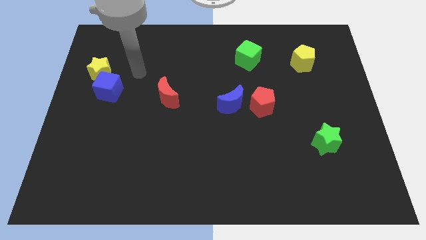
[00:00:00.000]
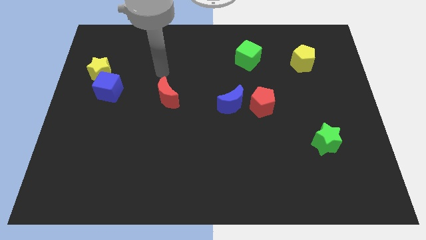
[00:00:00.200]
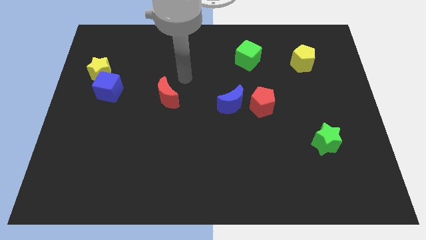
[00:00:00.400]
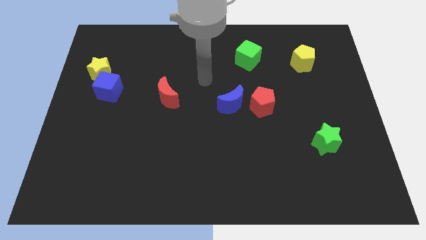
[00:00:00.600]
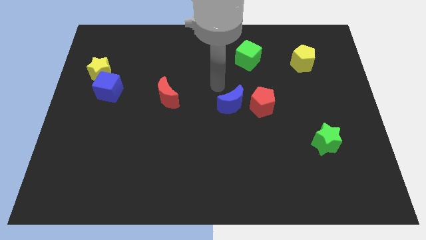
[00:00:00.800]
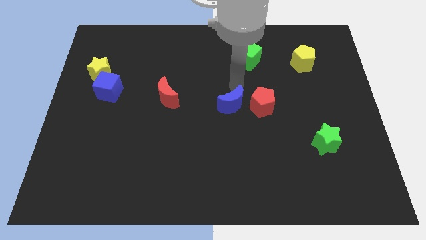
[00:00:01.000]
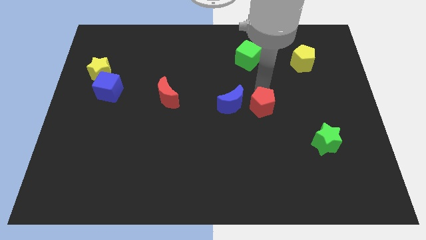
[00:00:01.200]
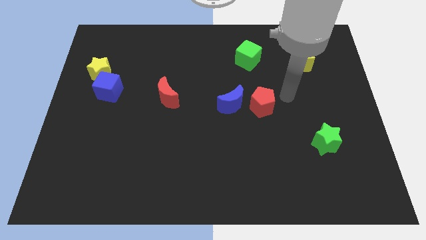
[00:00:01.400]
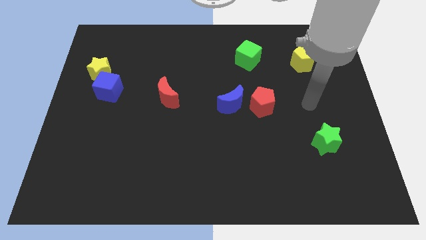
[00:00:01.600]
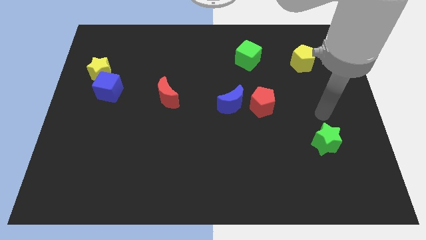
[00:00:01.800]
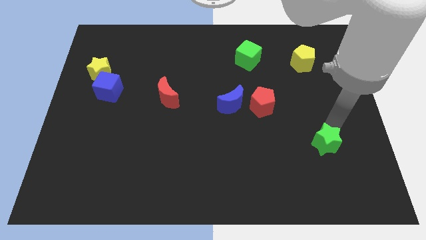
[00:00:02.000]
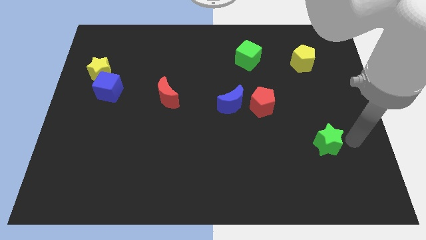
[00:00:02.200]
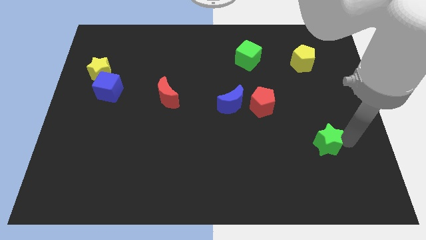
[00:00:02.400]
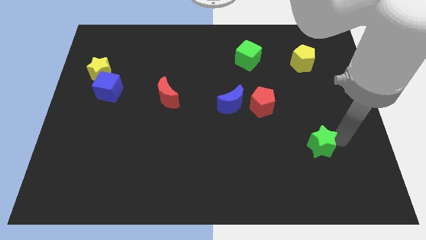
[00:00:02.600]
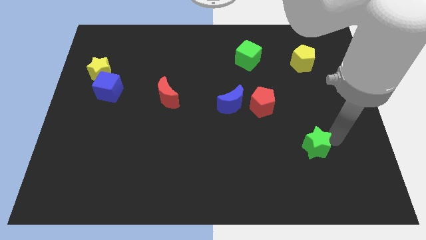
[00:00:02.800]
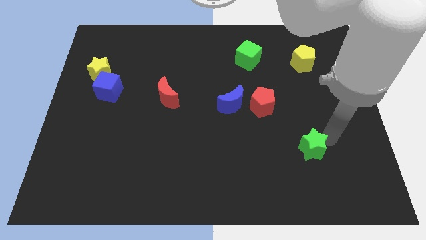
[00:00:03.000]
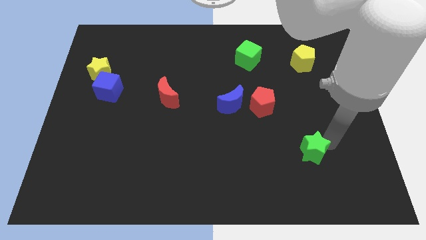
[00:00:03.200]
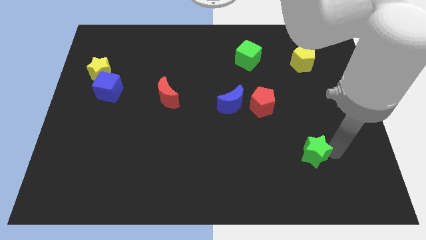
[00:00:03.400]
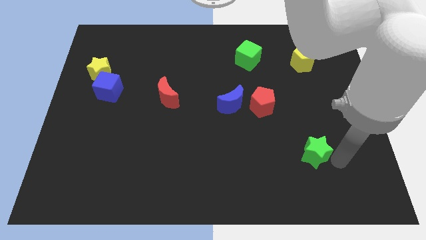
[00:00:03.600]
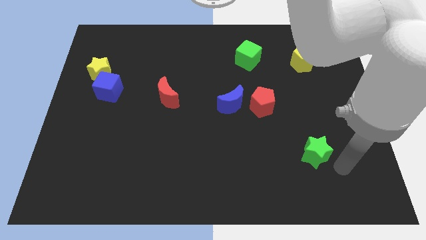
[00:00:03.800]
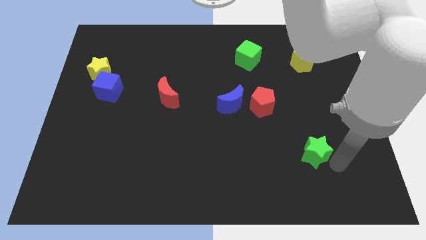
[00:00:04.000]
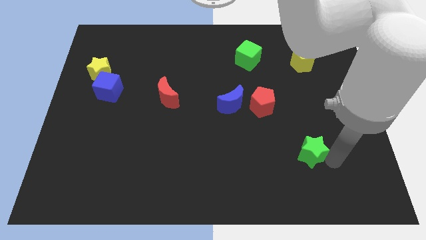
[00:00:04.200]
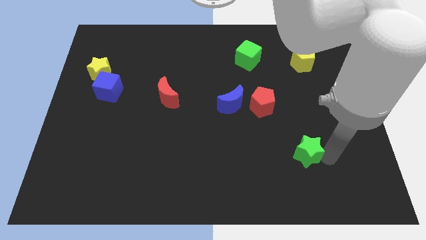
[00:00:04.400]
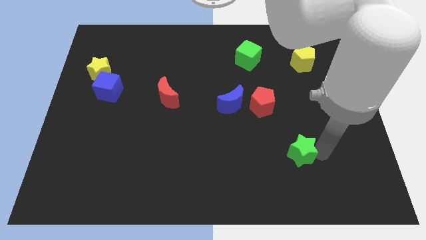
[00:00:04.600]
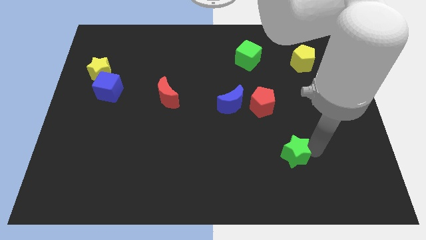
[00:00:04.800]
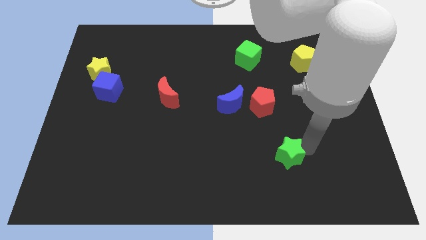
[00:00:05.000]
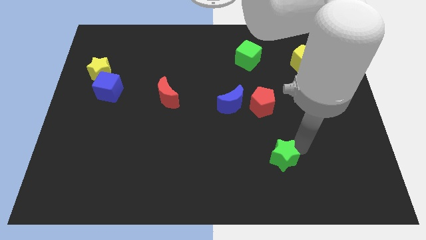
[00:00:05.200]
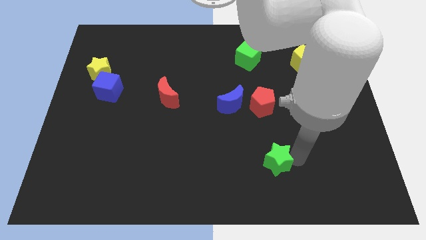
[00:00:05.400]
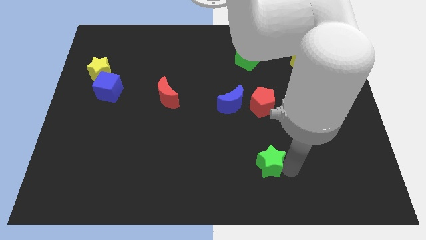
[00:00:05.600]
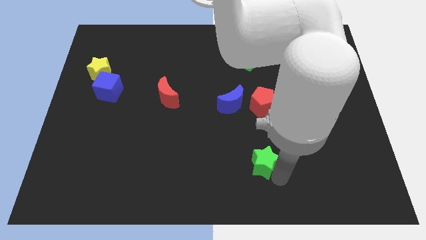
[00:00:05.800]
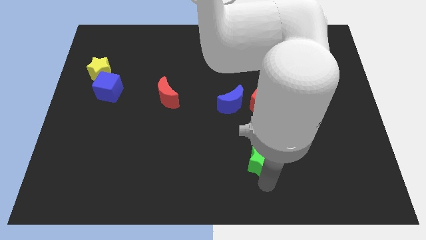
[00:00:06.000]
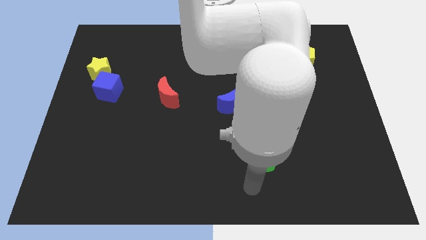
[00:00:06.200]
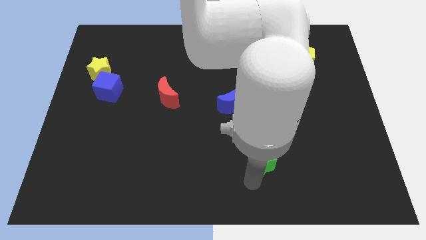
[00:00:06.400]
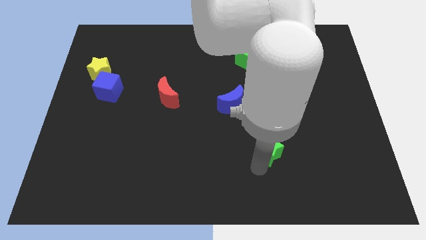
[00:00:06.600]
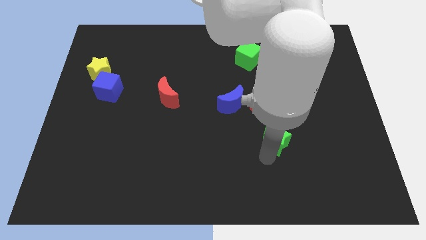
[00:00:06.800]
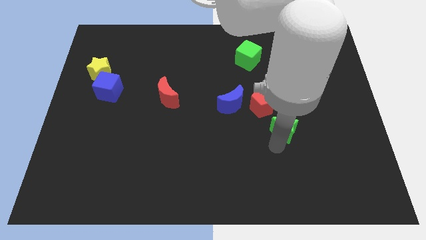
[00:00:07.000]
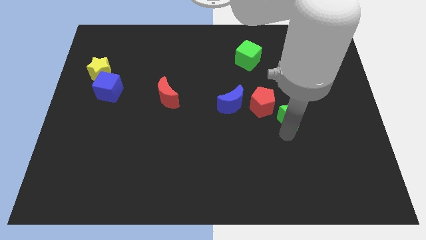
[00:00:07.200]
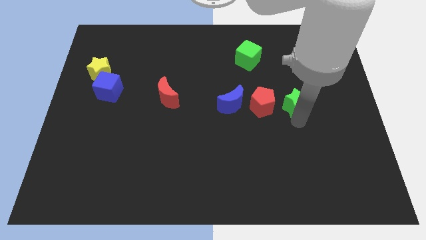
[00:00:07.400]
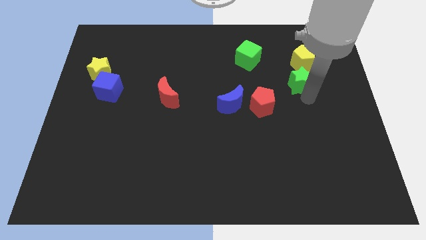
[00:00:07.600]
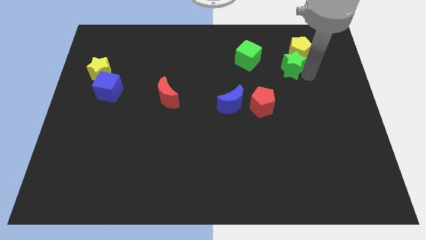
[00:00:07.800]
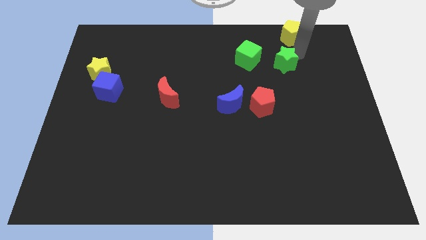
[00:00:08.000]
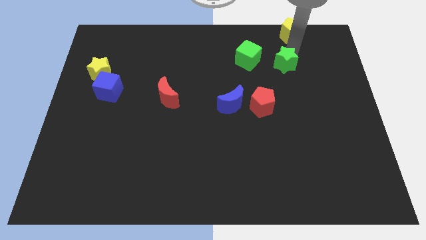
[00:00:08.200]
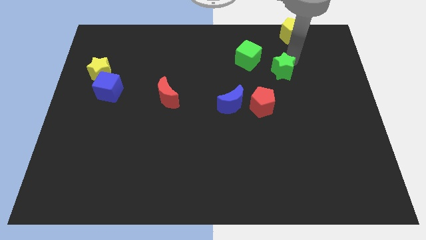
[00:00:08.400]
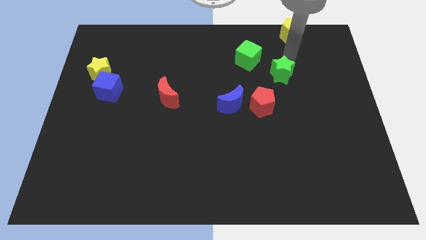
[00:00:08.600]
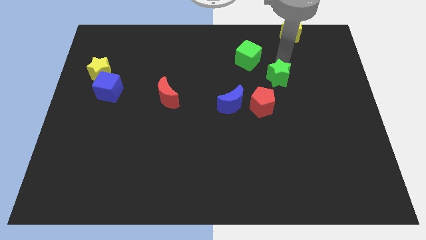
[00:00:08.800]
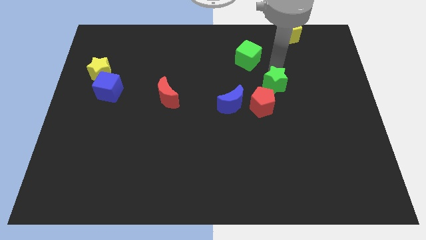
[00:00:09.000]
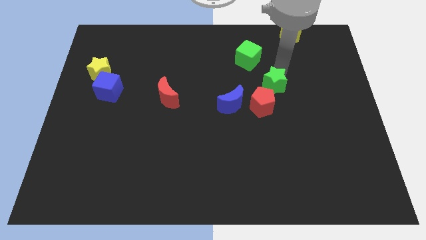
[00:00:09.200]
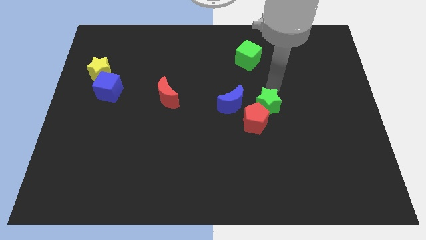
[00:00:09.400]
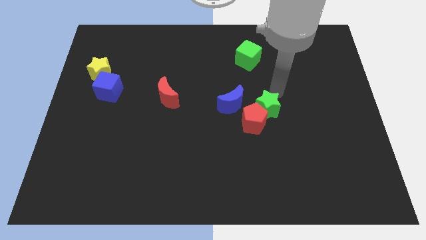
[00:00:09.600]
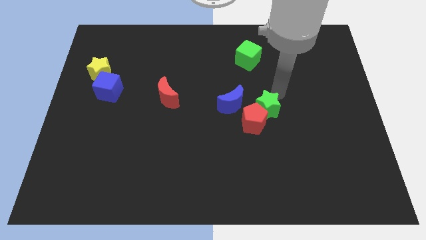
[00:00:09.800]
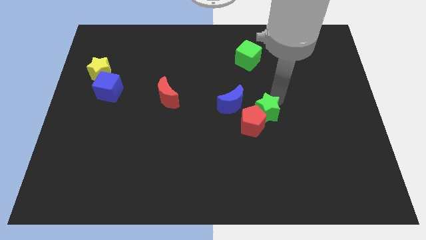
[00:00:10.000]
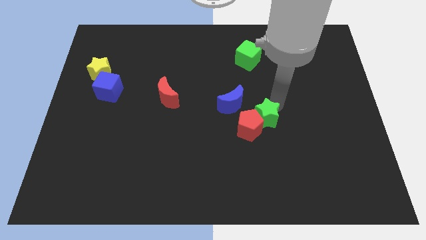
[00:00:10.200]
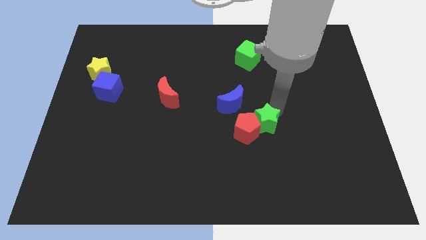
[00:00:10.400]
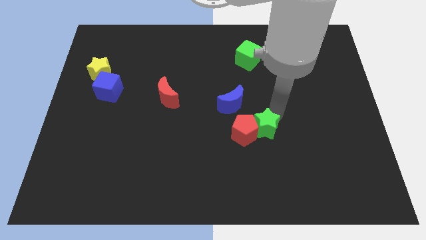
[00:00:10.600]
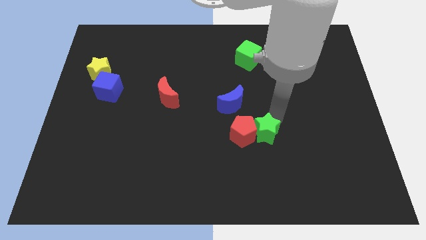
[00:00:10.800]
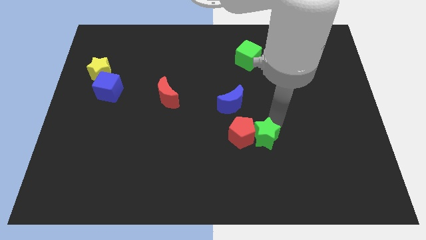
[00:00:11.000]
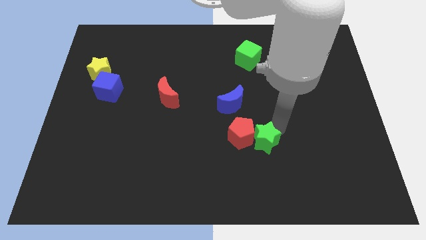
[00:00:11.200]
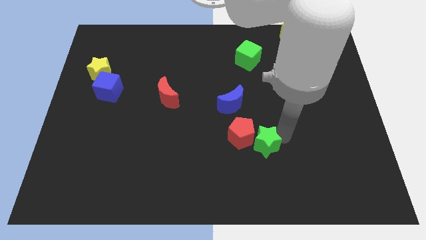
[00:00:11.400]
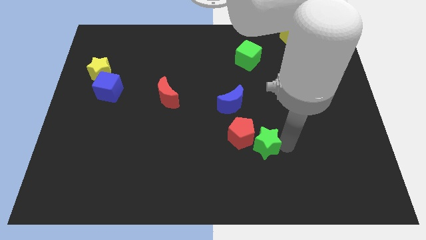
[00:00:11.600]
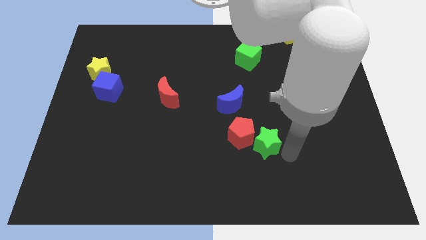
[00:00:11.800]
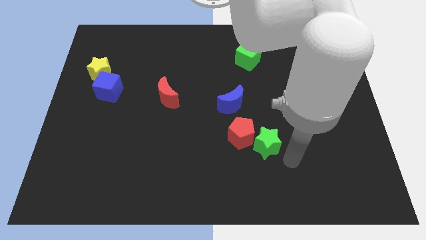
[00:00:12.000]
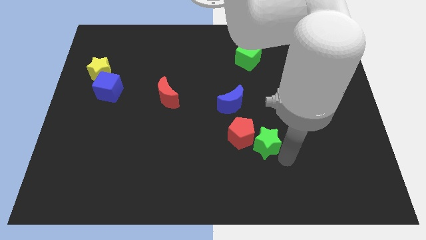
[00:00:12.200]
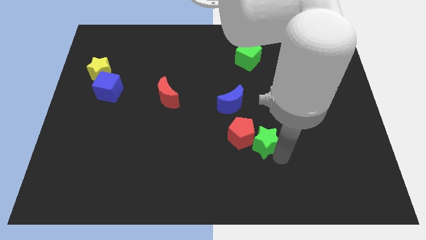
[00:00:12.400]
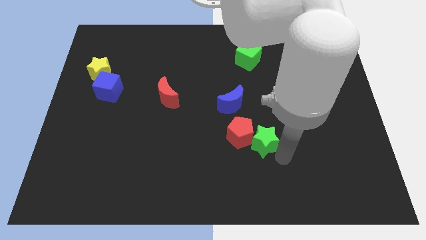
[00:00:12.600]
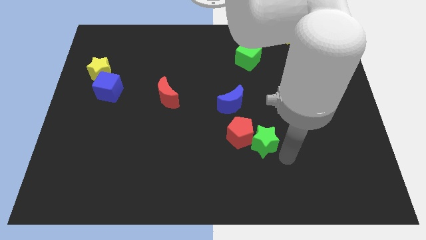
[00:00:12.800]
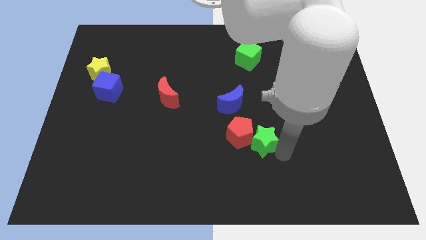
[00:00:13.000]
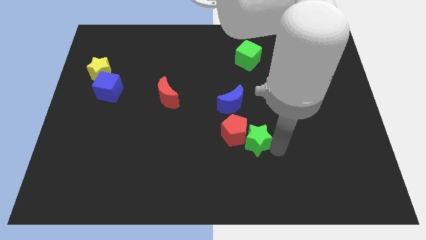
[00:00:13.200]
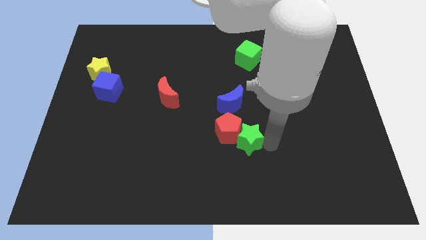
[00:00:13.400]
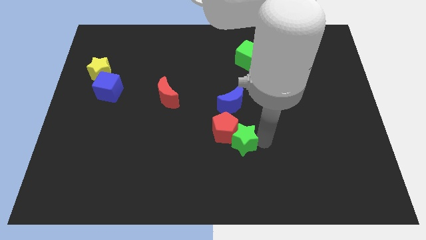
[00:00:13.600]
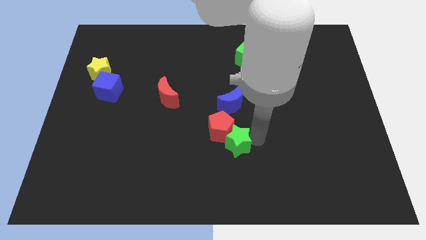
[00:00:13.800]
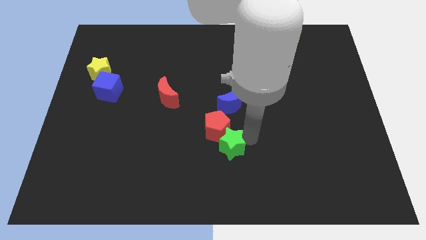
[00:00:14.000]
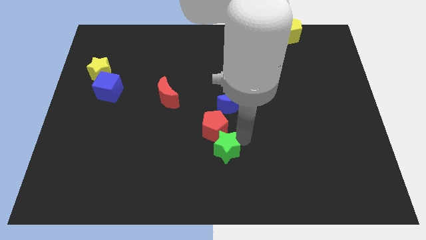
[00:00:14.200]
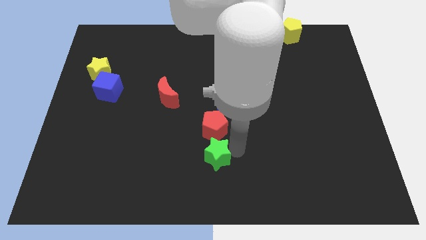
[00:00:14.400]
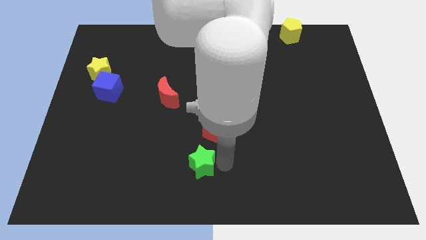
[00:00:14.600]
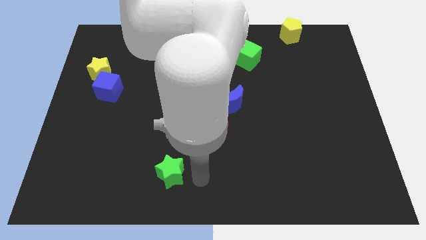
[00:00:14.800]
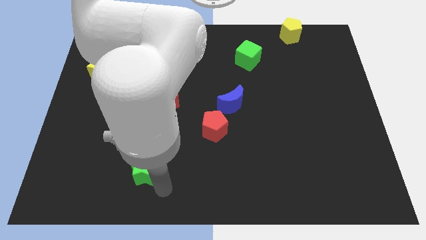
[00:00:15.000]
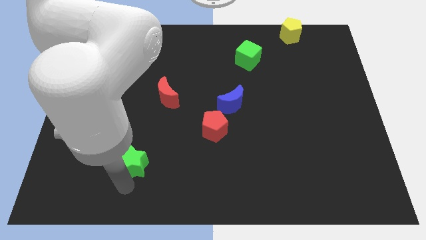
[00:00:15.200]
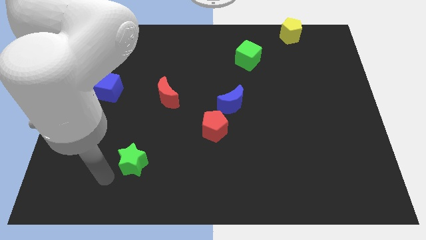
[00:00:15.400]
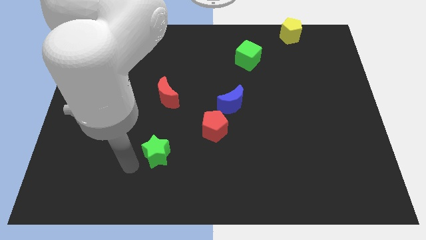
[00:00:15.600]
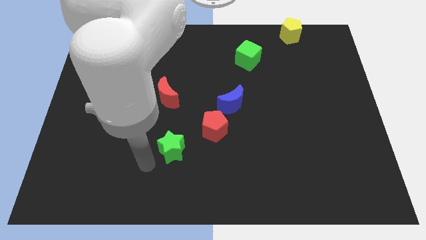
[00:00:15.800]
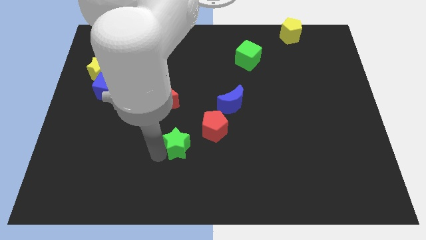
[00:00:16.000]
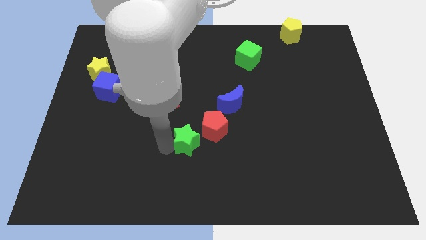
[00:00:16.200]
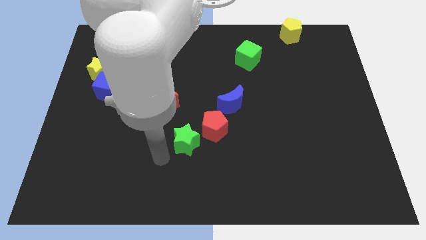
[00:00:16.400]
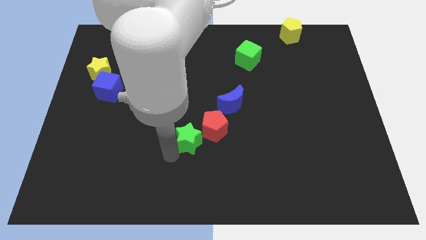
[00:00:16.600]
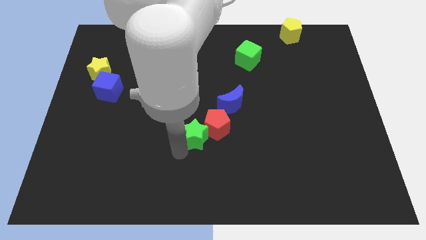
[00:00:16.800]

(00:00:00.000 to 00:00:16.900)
move the green star to the bottom left of the blue moon
